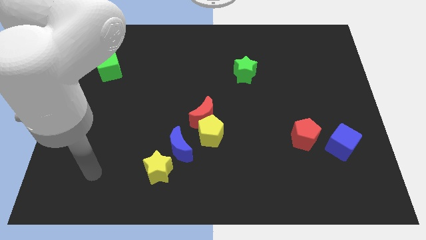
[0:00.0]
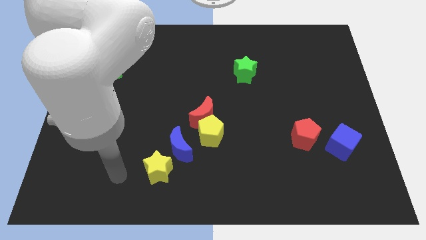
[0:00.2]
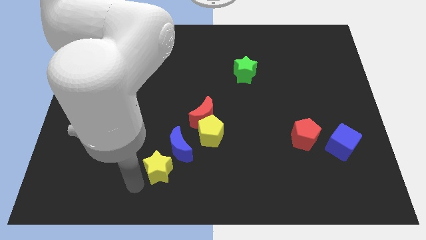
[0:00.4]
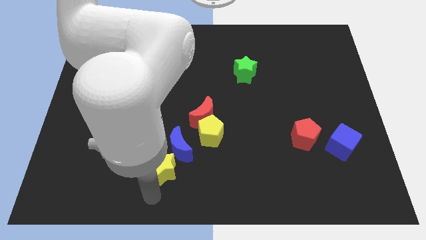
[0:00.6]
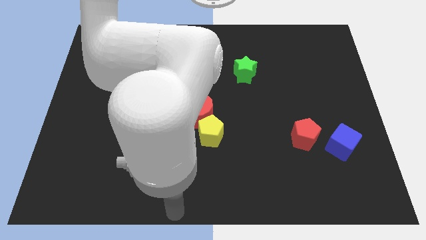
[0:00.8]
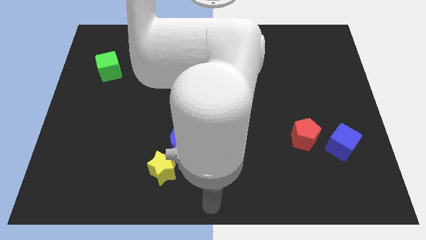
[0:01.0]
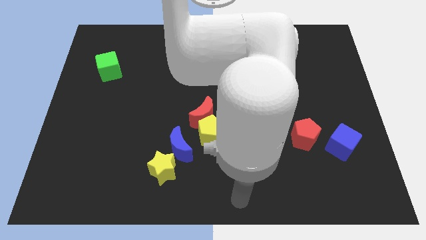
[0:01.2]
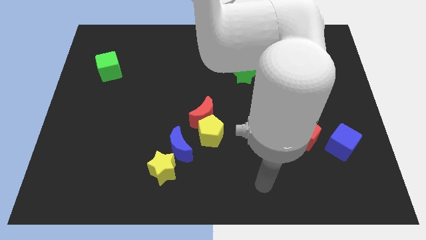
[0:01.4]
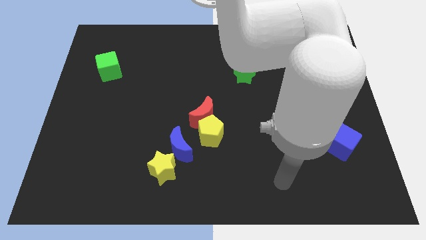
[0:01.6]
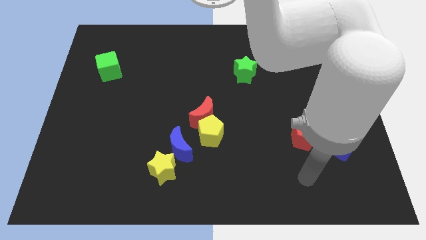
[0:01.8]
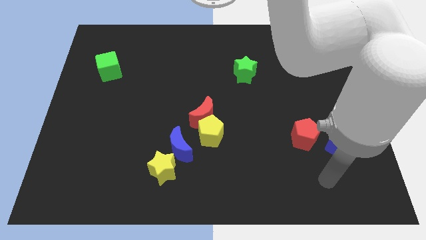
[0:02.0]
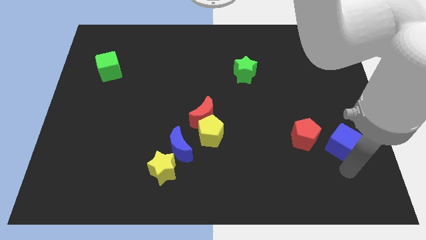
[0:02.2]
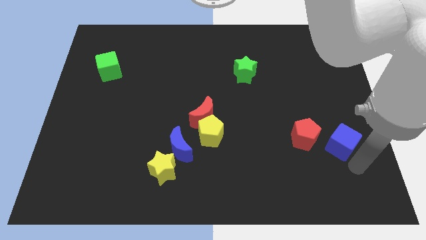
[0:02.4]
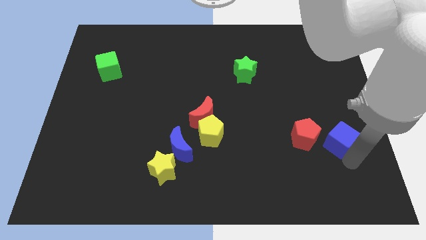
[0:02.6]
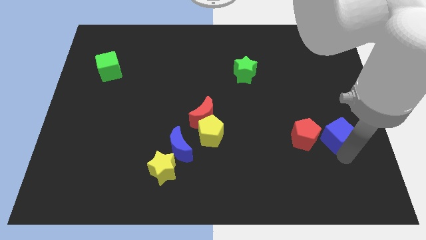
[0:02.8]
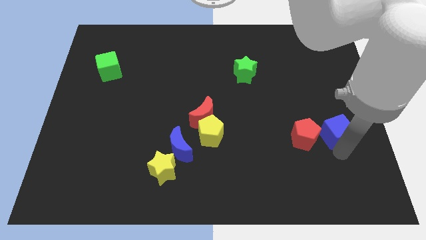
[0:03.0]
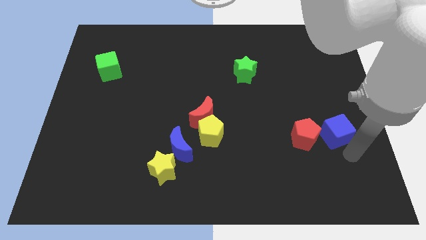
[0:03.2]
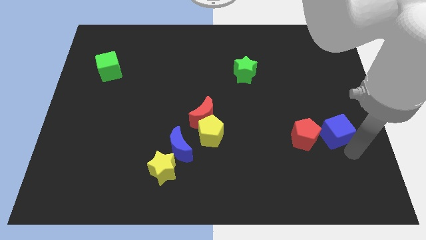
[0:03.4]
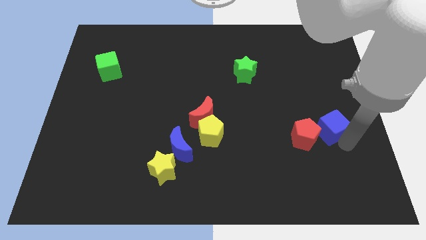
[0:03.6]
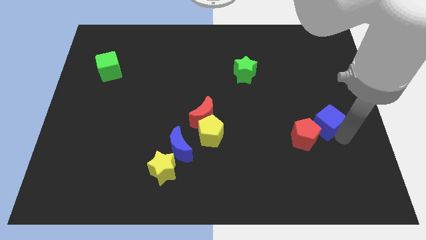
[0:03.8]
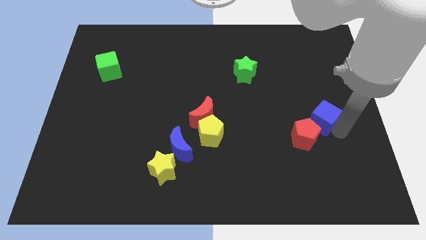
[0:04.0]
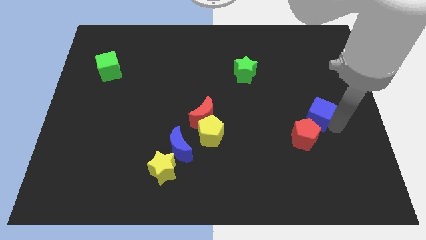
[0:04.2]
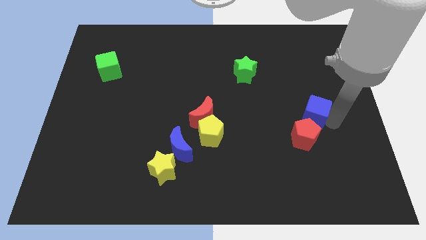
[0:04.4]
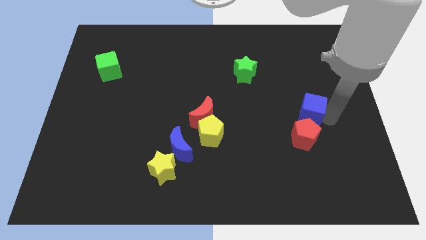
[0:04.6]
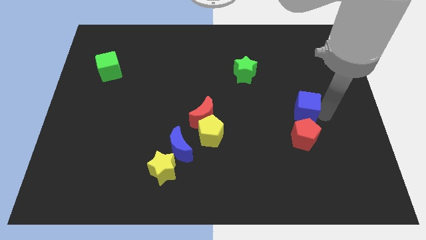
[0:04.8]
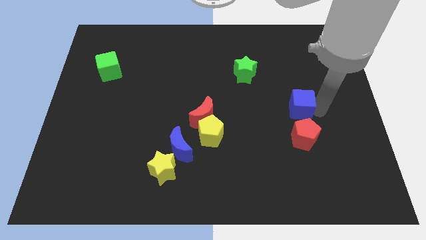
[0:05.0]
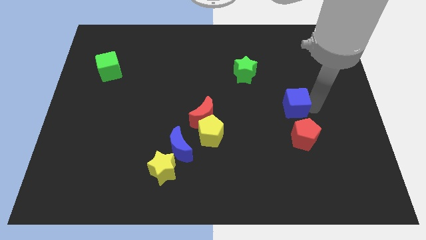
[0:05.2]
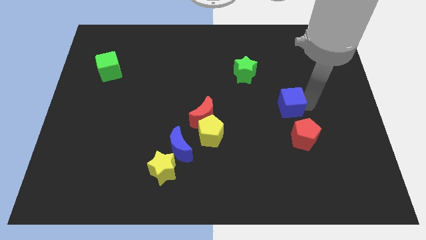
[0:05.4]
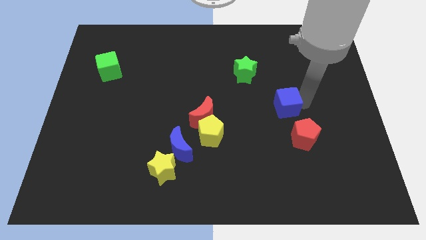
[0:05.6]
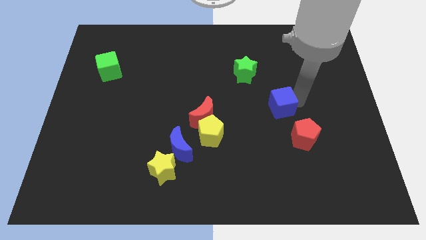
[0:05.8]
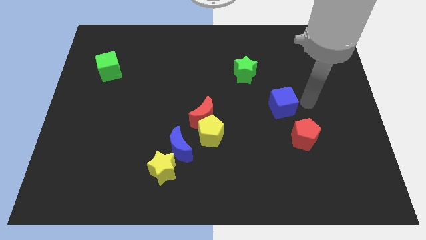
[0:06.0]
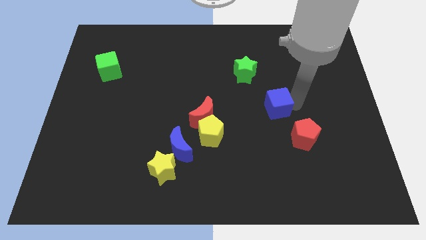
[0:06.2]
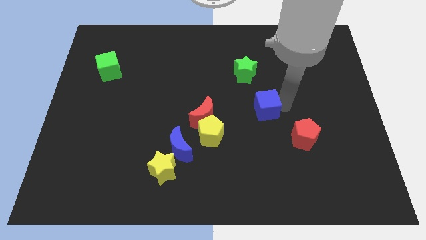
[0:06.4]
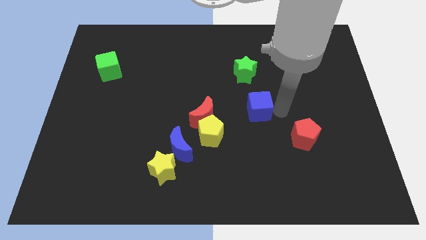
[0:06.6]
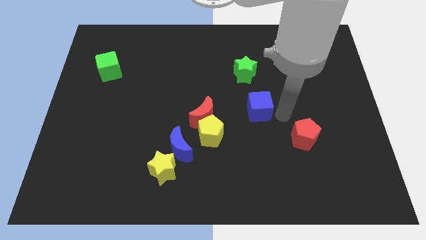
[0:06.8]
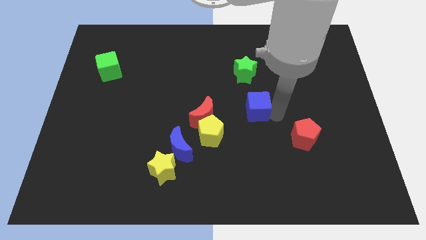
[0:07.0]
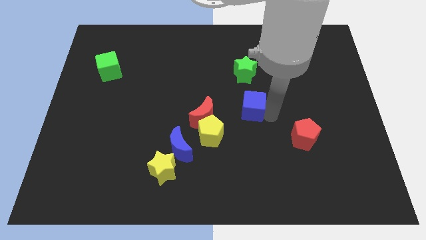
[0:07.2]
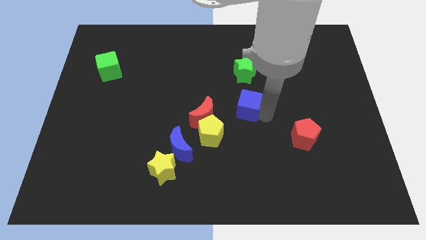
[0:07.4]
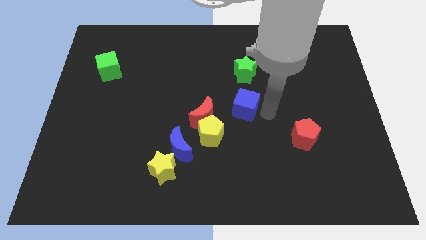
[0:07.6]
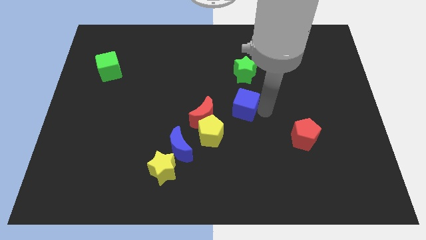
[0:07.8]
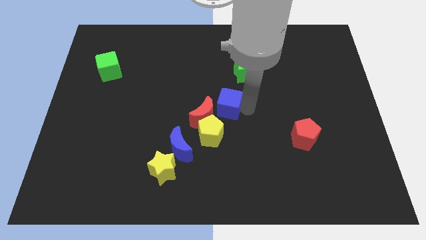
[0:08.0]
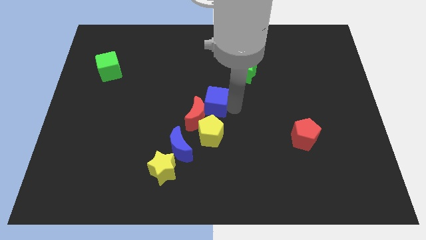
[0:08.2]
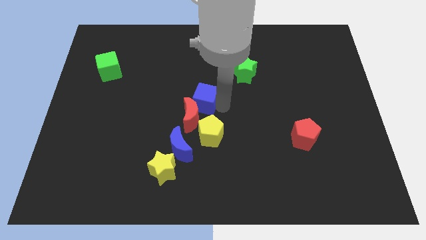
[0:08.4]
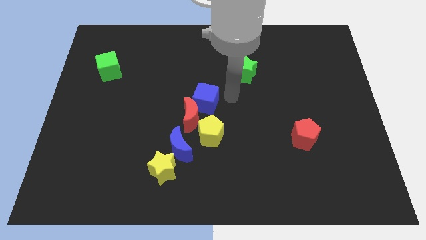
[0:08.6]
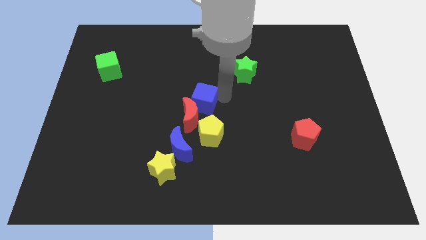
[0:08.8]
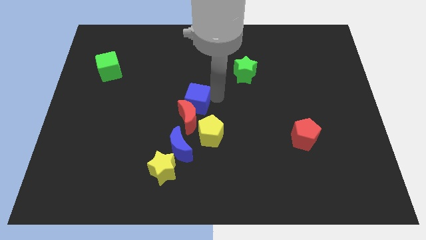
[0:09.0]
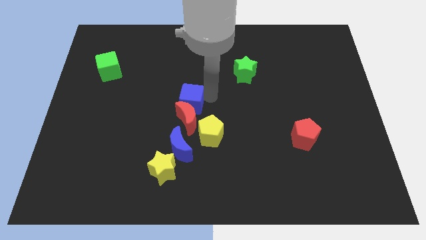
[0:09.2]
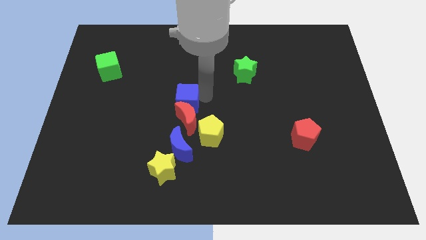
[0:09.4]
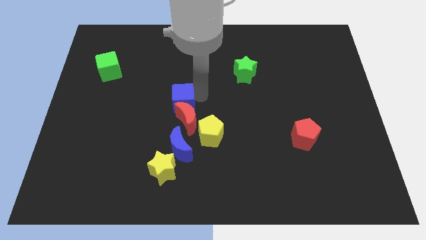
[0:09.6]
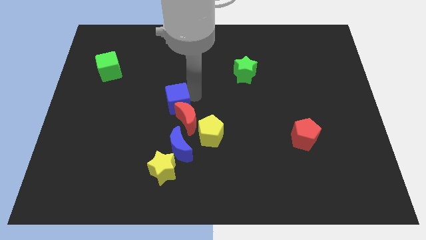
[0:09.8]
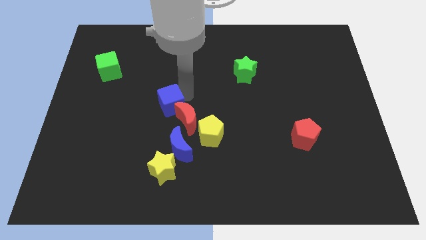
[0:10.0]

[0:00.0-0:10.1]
push the blue cube to the left side of the red moon

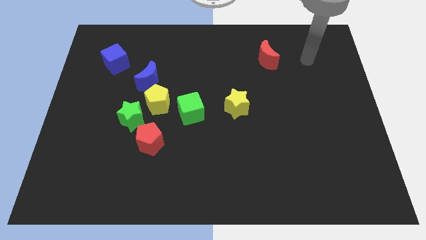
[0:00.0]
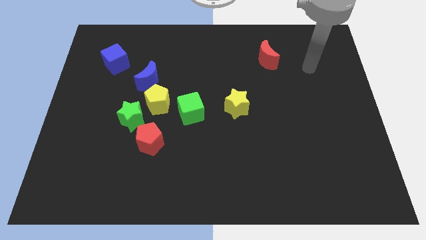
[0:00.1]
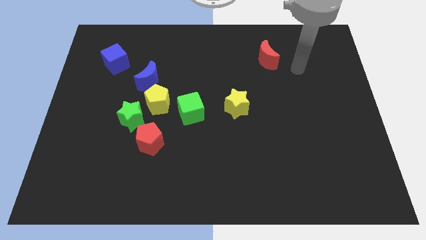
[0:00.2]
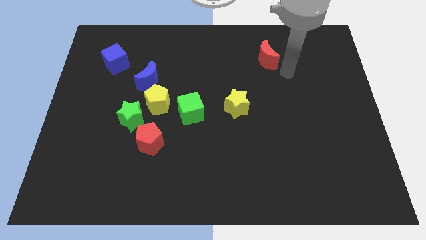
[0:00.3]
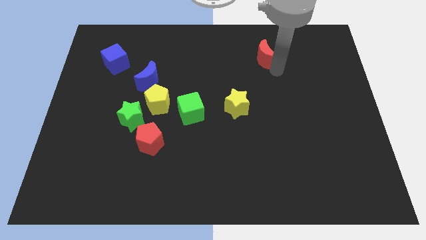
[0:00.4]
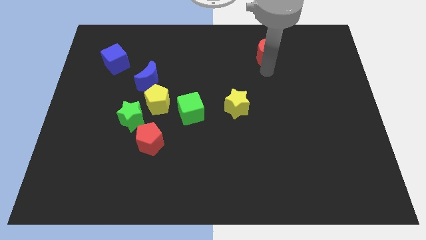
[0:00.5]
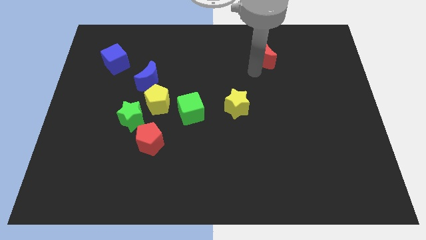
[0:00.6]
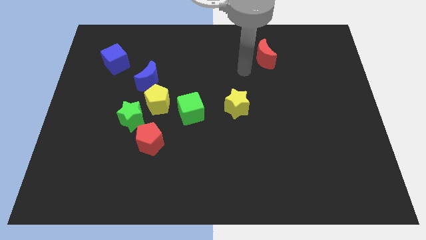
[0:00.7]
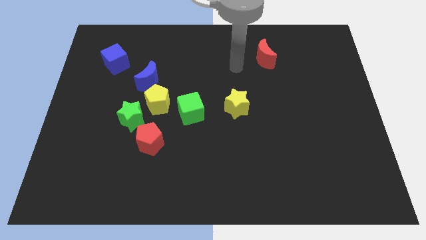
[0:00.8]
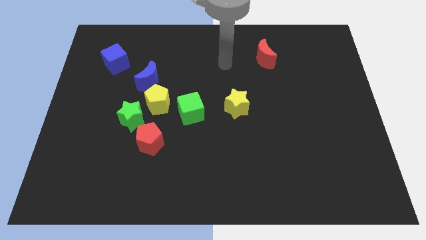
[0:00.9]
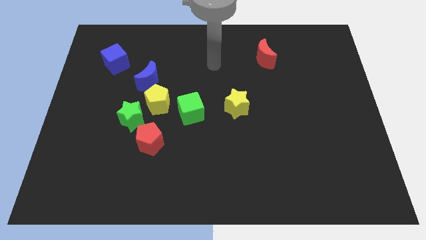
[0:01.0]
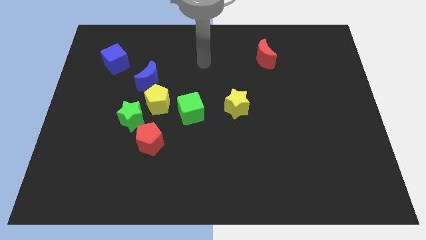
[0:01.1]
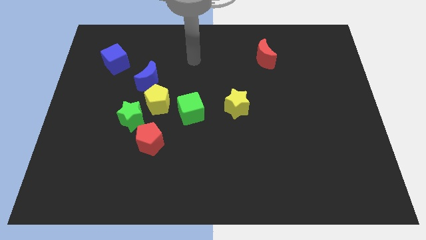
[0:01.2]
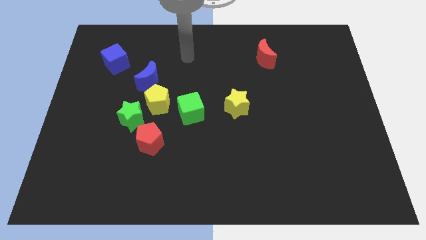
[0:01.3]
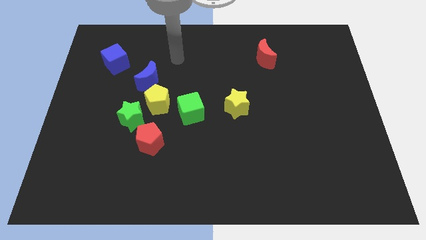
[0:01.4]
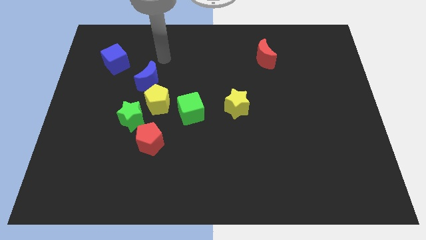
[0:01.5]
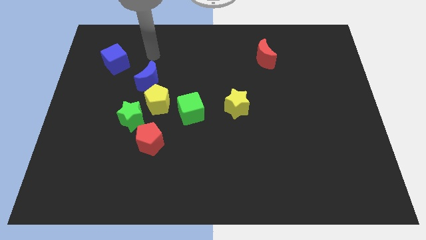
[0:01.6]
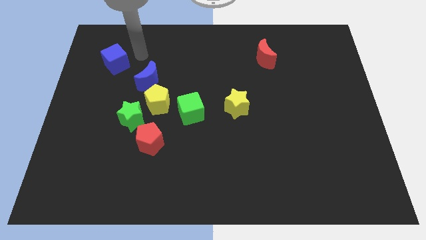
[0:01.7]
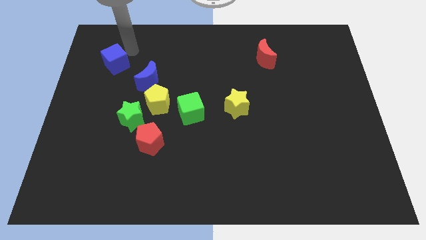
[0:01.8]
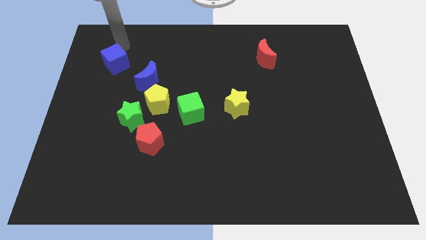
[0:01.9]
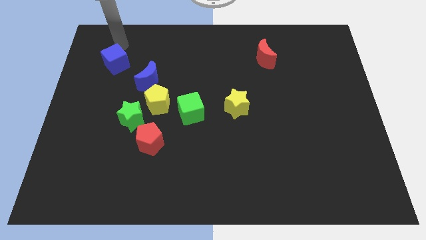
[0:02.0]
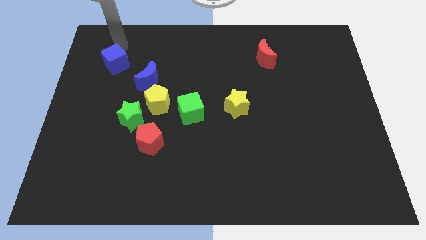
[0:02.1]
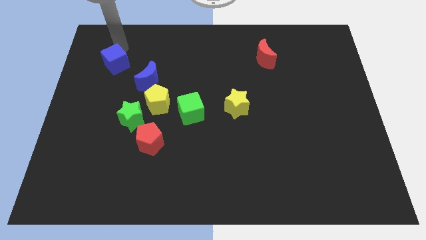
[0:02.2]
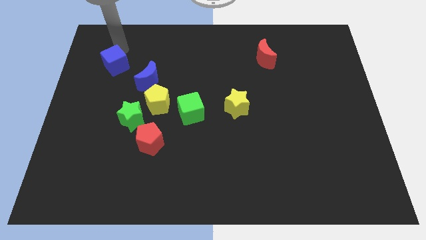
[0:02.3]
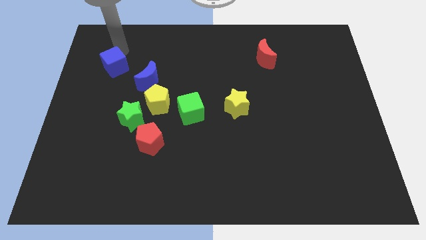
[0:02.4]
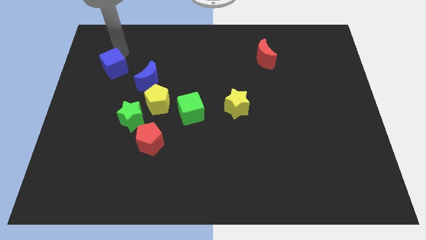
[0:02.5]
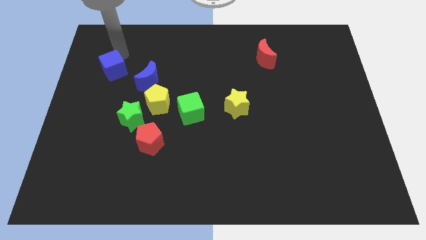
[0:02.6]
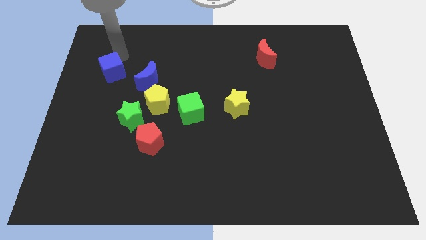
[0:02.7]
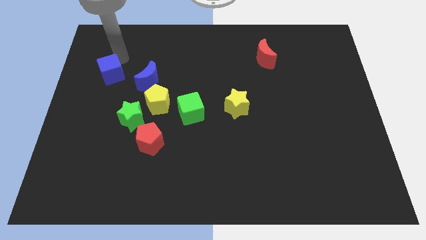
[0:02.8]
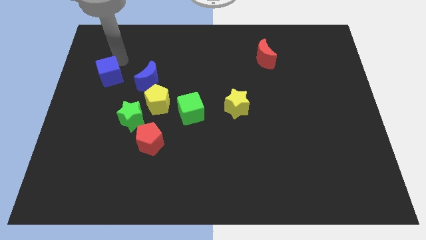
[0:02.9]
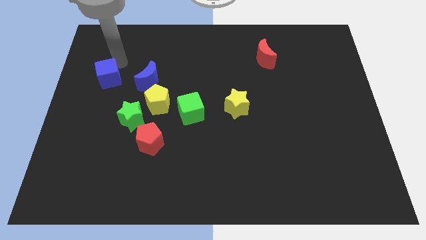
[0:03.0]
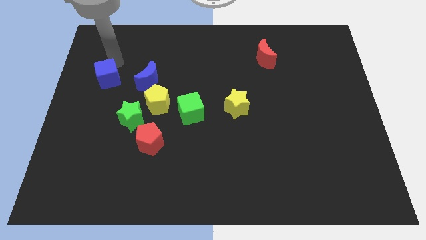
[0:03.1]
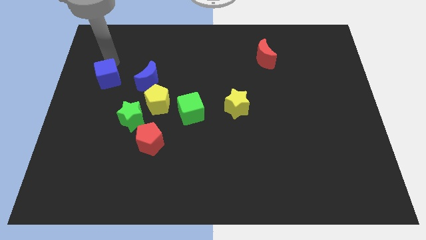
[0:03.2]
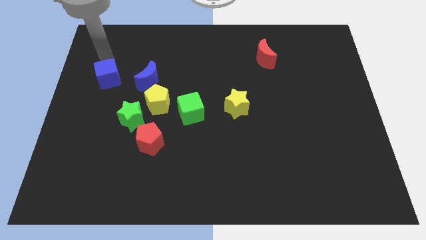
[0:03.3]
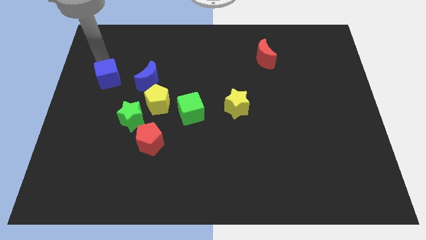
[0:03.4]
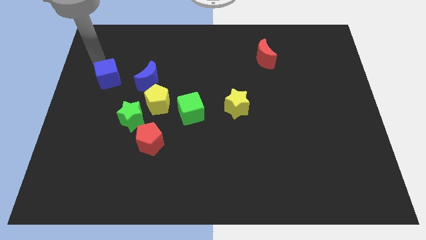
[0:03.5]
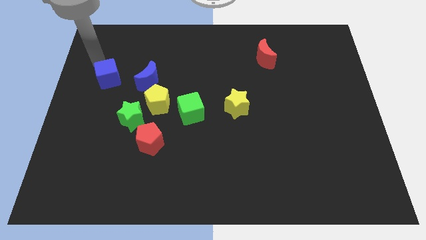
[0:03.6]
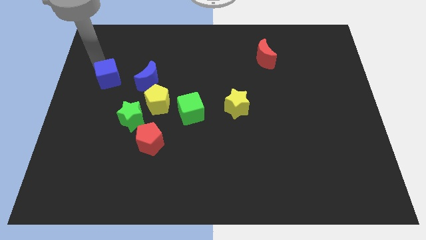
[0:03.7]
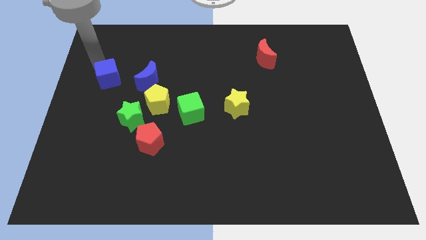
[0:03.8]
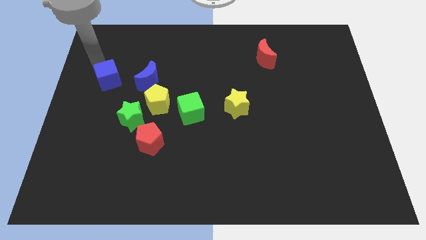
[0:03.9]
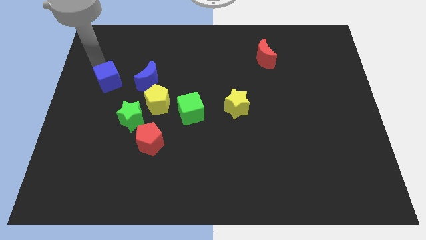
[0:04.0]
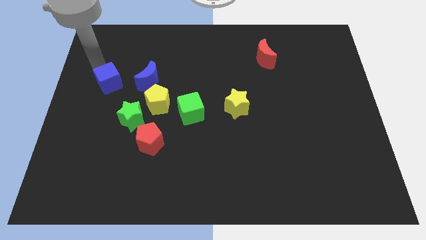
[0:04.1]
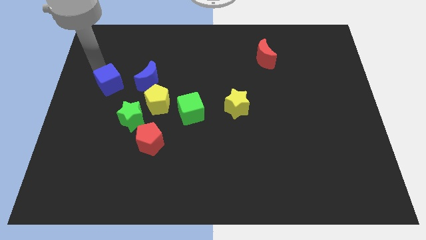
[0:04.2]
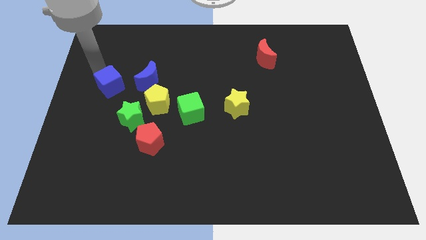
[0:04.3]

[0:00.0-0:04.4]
put the blue cube to the top left side of the green star
